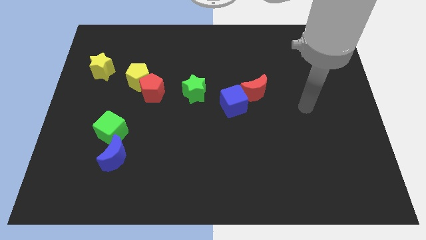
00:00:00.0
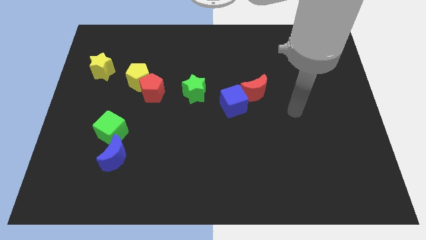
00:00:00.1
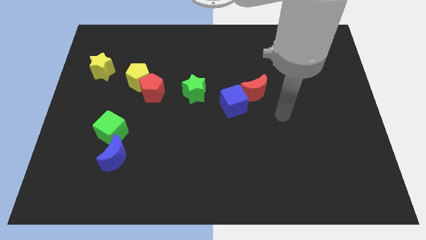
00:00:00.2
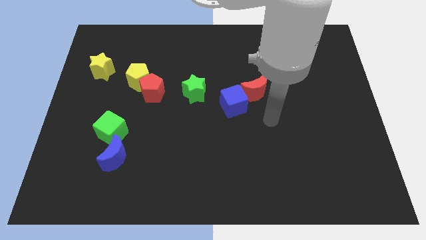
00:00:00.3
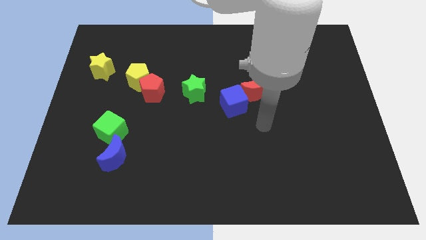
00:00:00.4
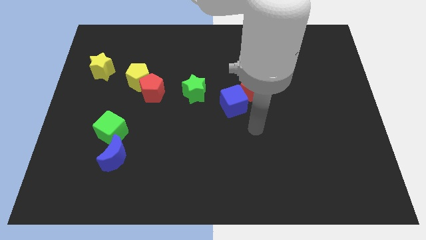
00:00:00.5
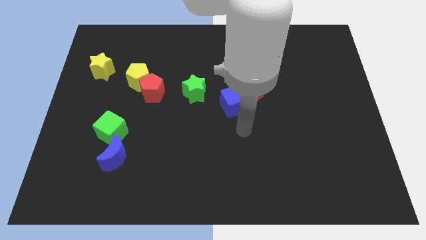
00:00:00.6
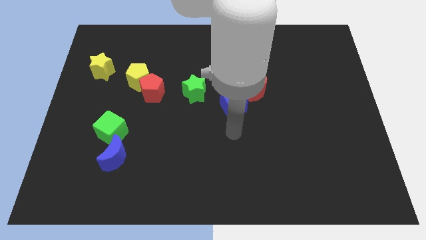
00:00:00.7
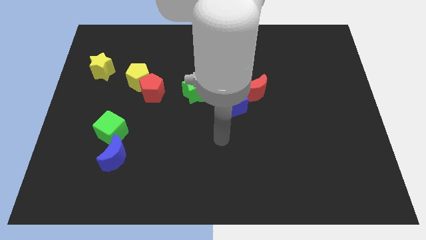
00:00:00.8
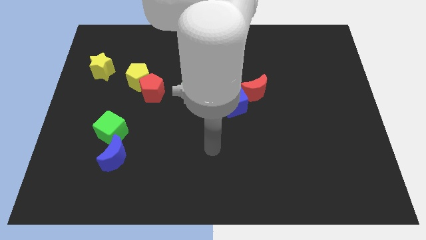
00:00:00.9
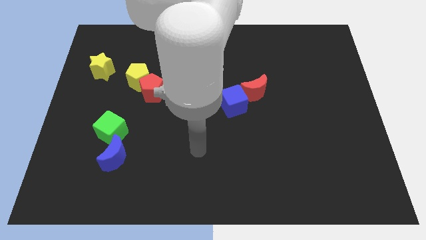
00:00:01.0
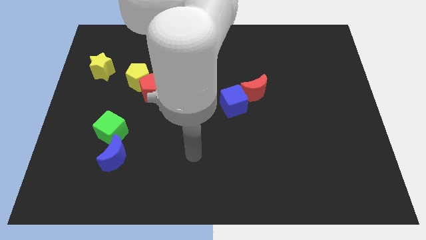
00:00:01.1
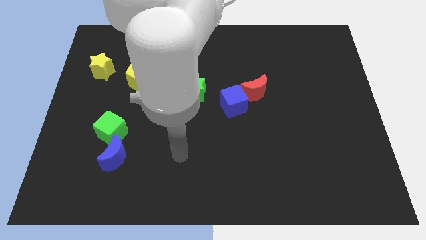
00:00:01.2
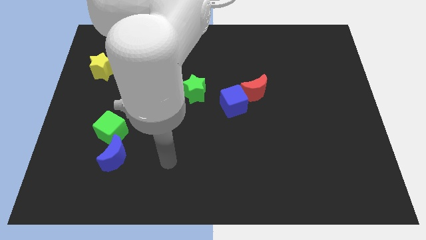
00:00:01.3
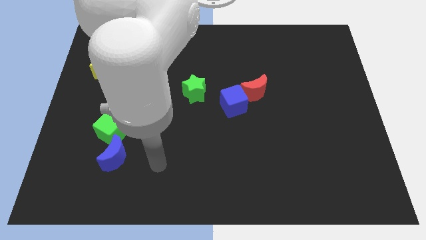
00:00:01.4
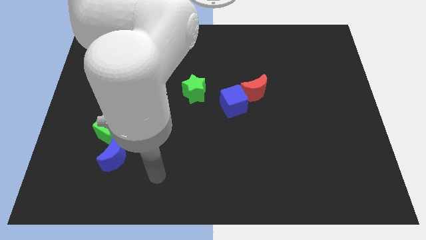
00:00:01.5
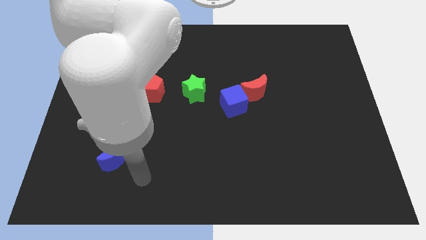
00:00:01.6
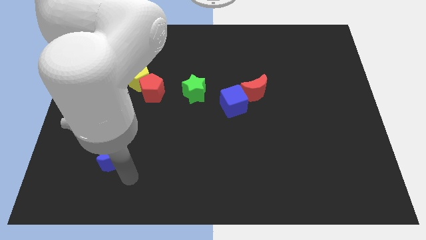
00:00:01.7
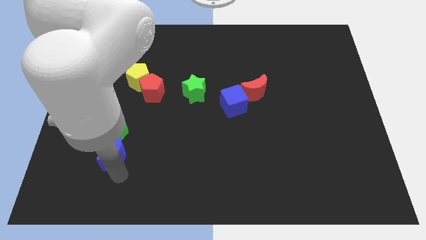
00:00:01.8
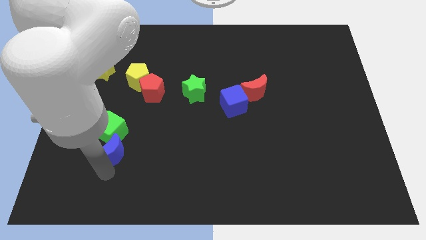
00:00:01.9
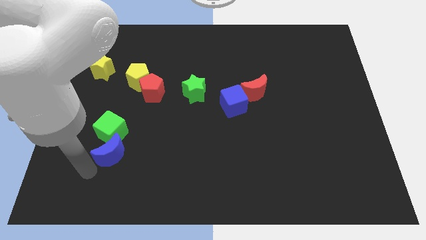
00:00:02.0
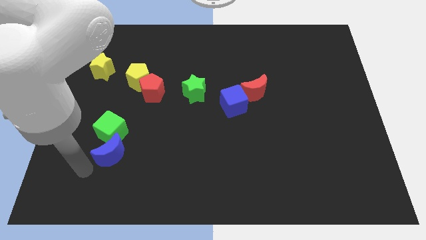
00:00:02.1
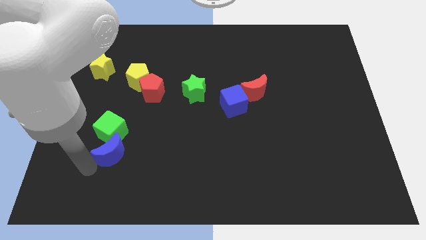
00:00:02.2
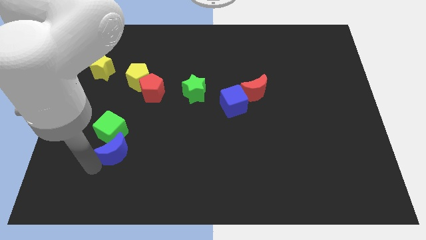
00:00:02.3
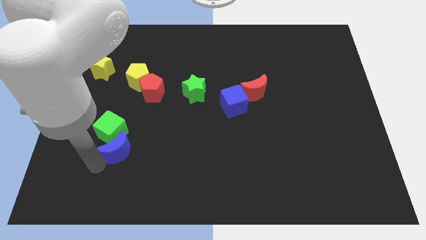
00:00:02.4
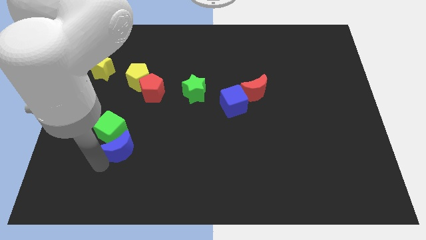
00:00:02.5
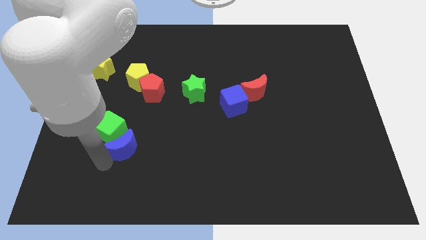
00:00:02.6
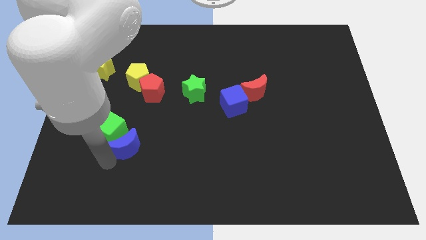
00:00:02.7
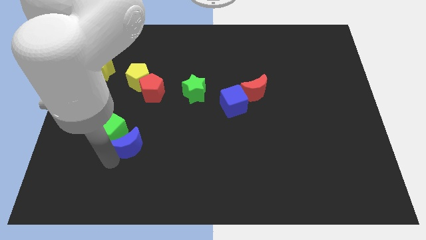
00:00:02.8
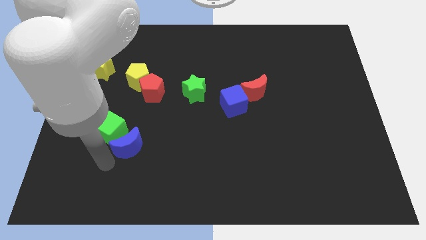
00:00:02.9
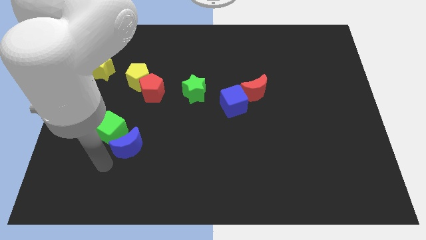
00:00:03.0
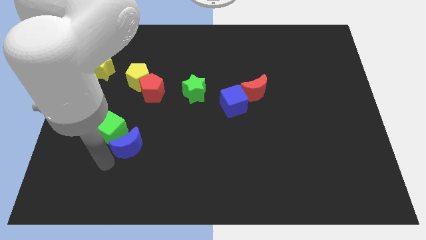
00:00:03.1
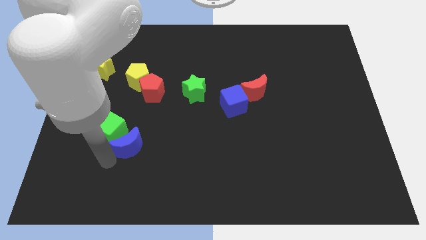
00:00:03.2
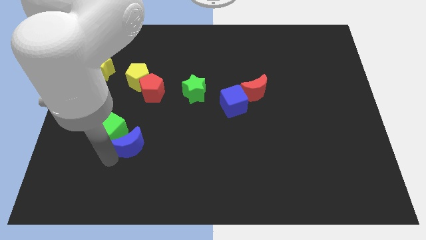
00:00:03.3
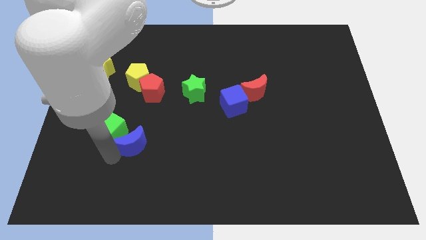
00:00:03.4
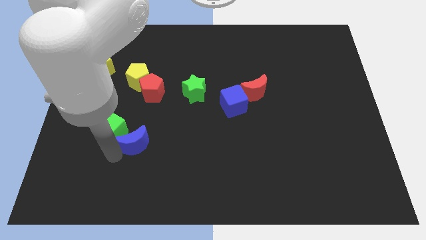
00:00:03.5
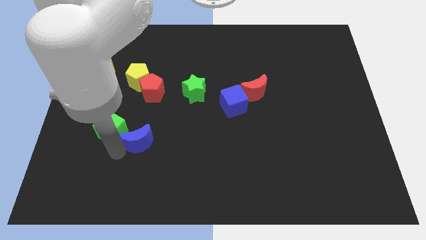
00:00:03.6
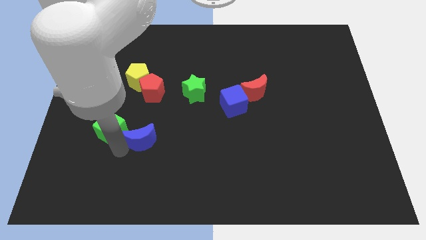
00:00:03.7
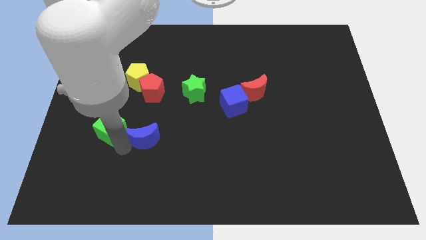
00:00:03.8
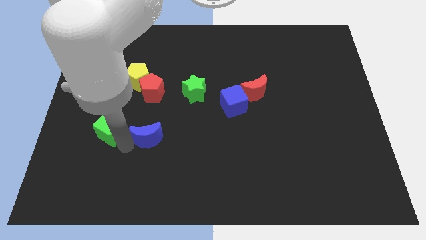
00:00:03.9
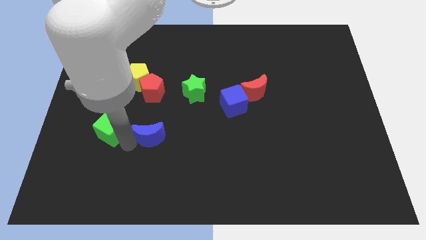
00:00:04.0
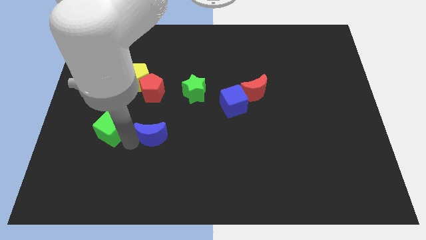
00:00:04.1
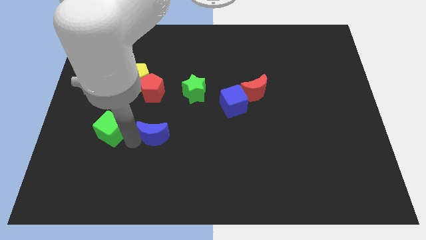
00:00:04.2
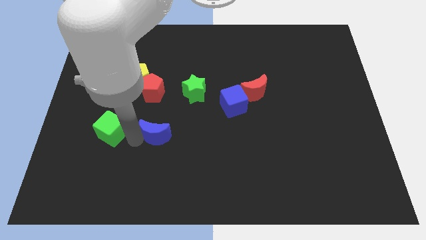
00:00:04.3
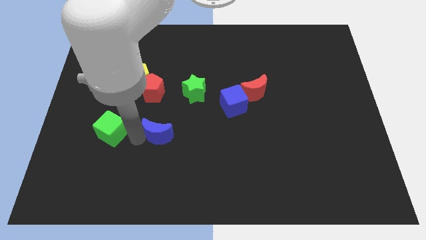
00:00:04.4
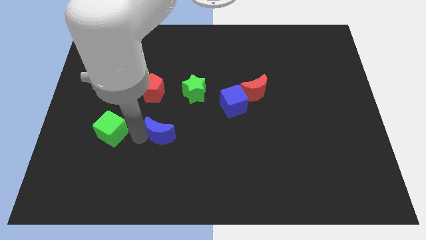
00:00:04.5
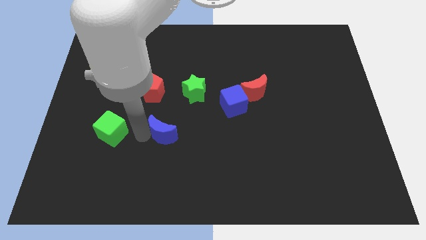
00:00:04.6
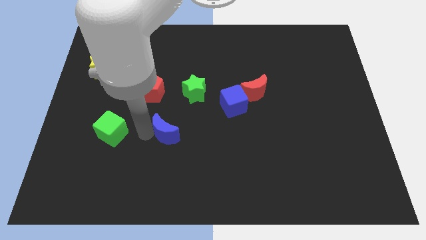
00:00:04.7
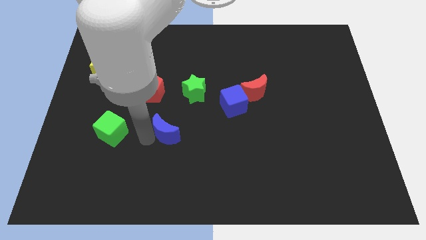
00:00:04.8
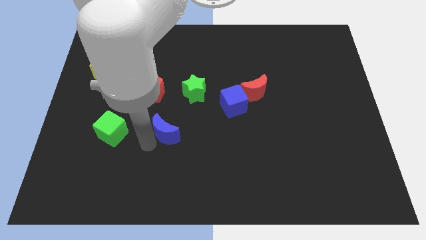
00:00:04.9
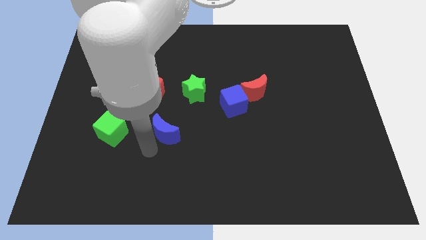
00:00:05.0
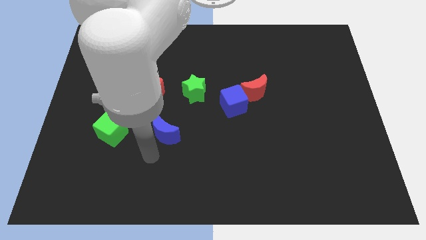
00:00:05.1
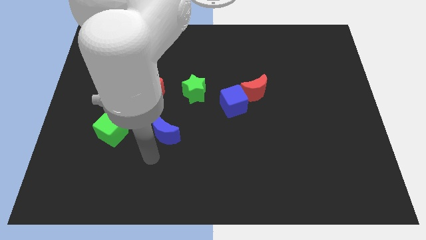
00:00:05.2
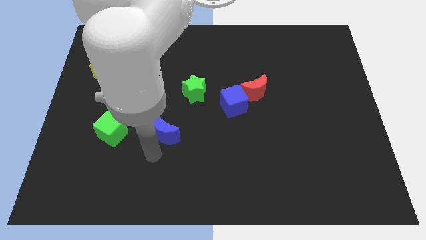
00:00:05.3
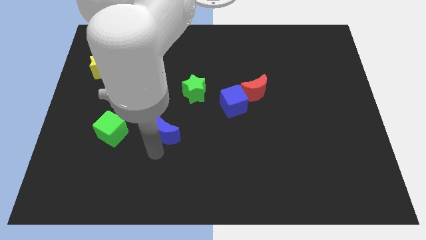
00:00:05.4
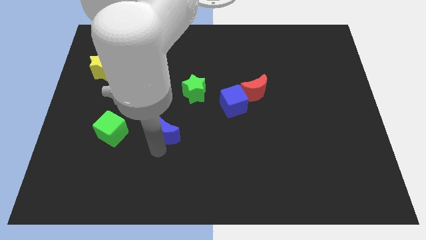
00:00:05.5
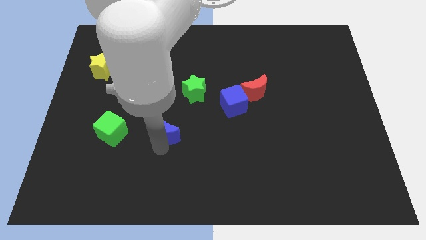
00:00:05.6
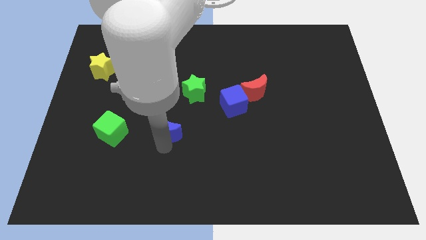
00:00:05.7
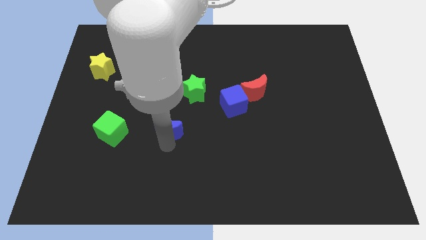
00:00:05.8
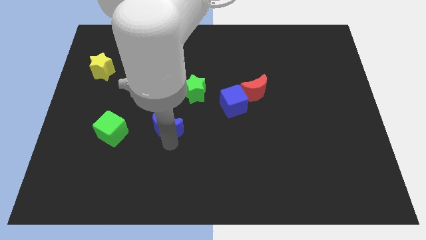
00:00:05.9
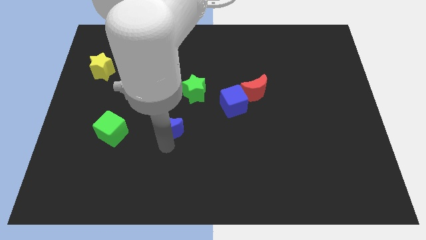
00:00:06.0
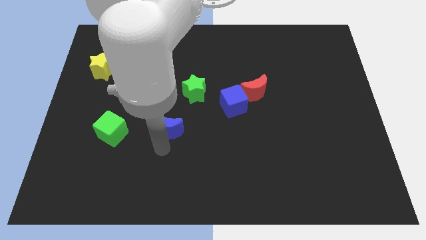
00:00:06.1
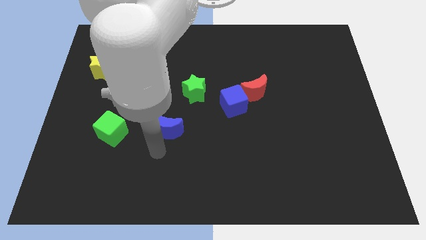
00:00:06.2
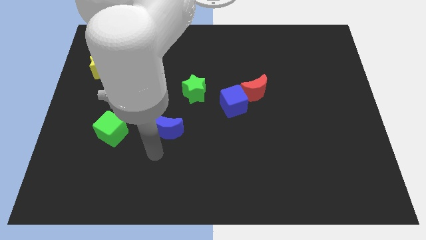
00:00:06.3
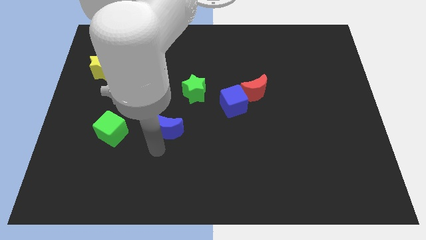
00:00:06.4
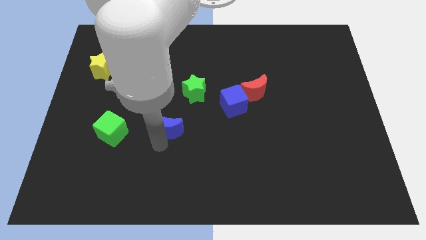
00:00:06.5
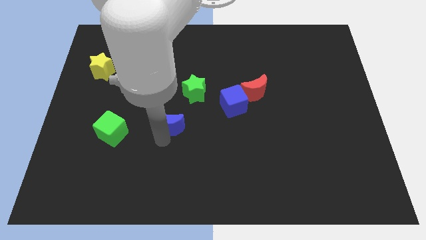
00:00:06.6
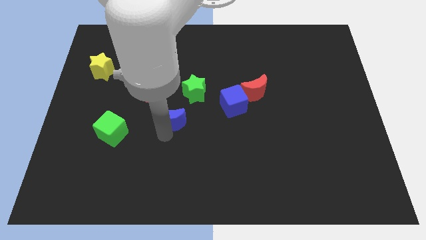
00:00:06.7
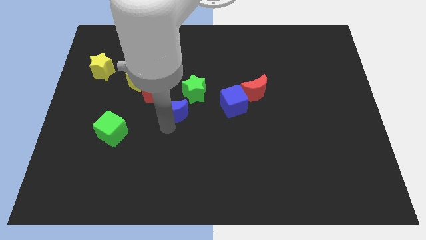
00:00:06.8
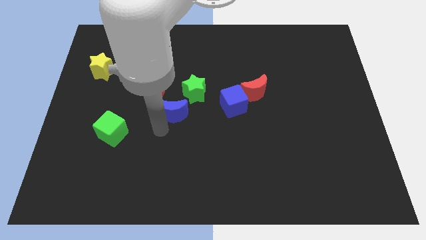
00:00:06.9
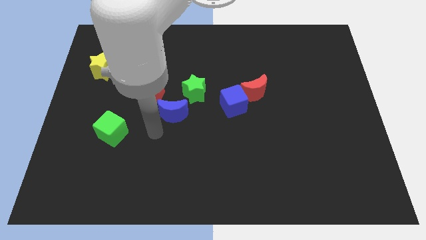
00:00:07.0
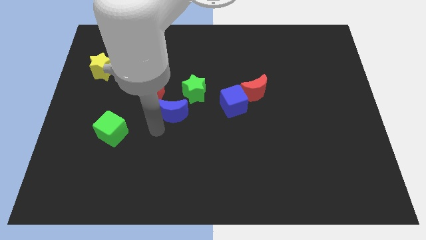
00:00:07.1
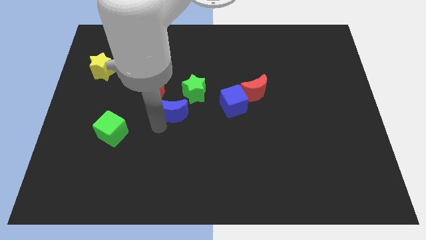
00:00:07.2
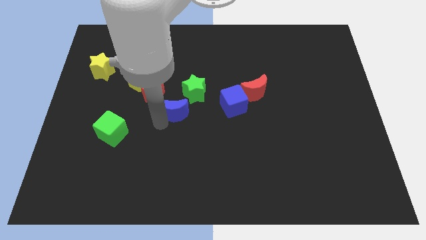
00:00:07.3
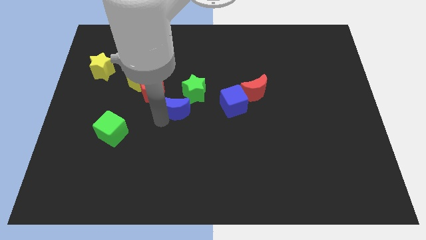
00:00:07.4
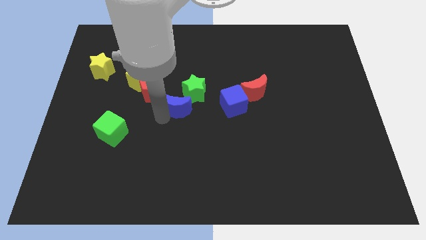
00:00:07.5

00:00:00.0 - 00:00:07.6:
move the blue moon to the green star
